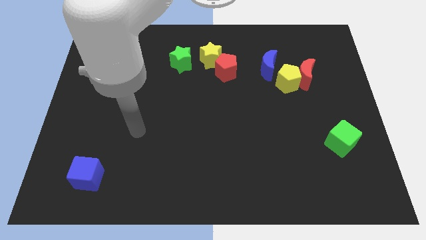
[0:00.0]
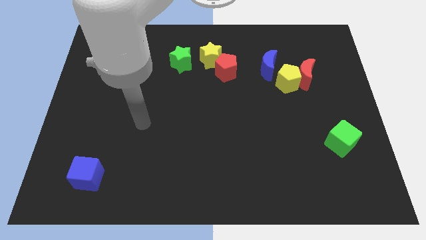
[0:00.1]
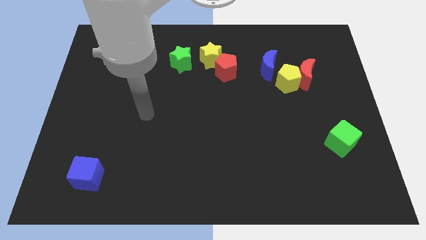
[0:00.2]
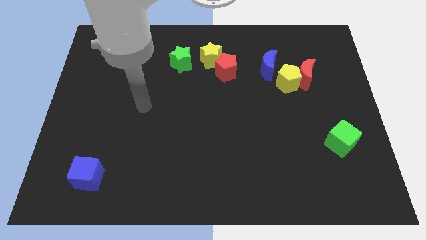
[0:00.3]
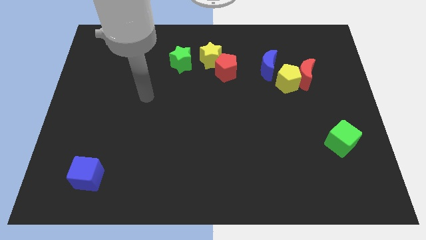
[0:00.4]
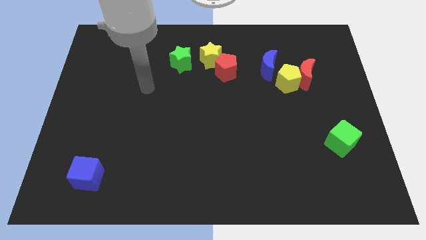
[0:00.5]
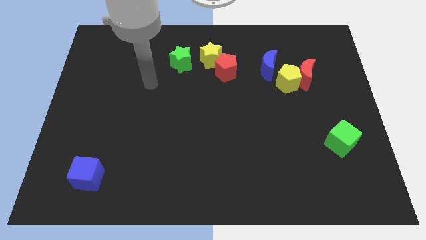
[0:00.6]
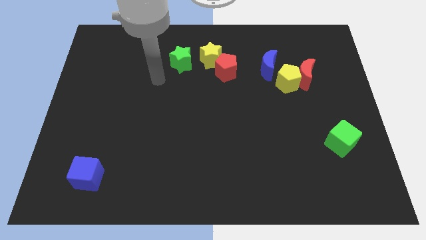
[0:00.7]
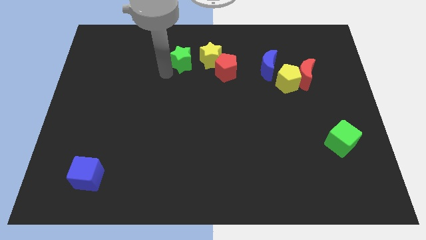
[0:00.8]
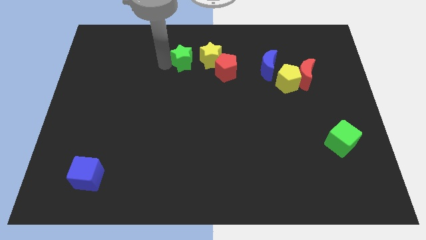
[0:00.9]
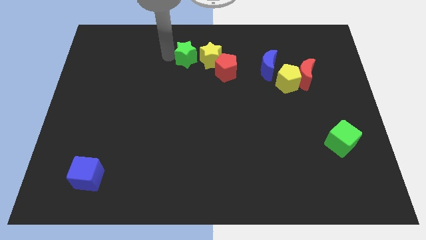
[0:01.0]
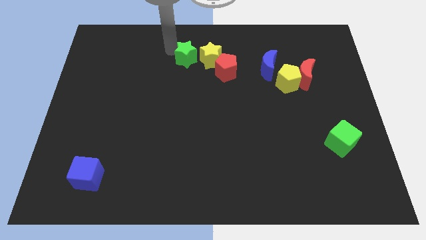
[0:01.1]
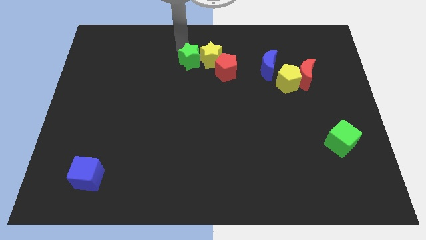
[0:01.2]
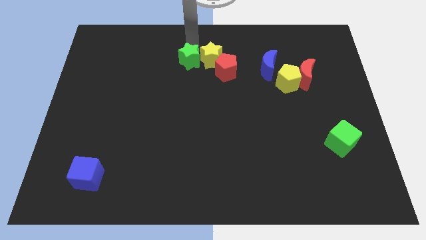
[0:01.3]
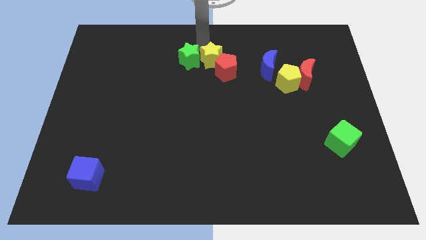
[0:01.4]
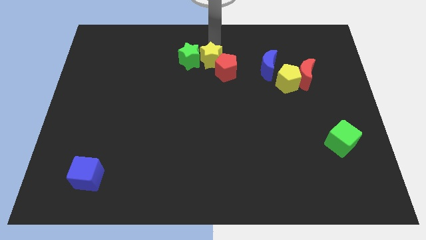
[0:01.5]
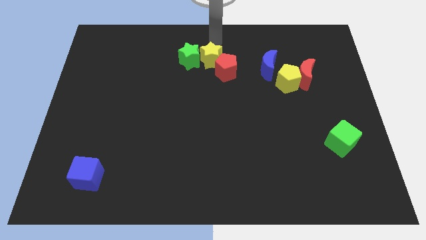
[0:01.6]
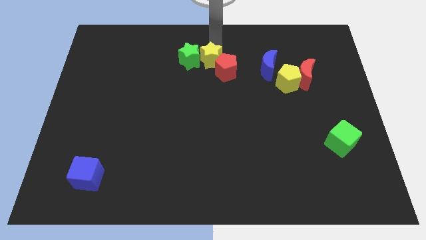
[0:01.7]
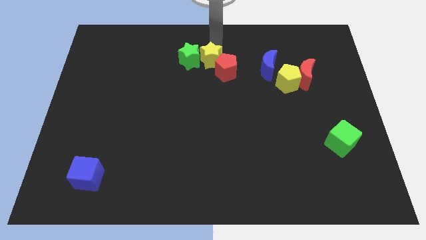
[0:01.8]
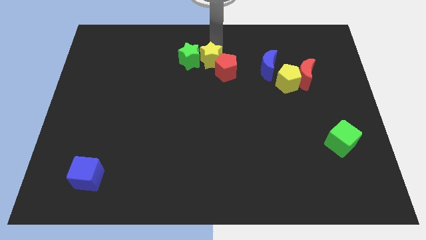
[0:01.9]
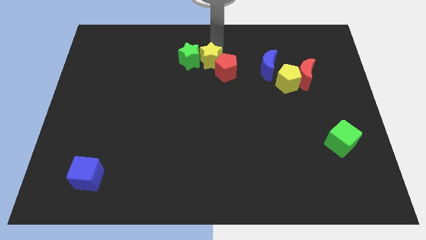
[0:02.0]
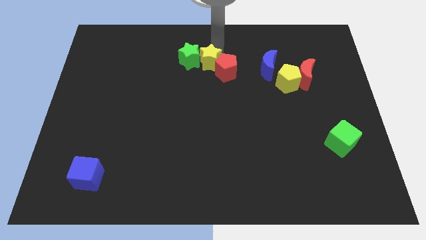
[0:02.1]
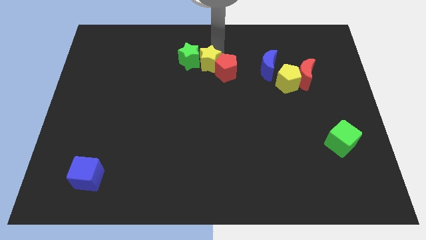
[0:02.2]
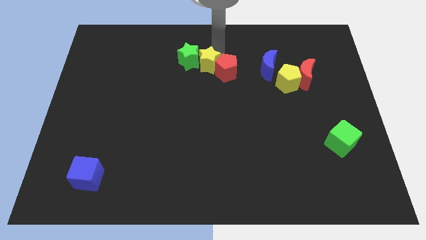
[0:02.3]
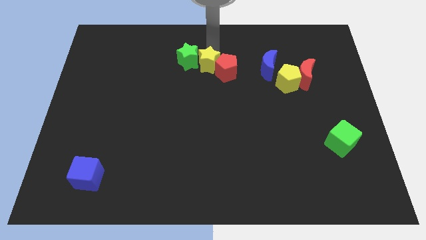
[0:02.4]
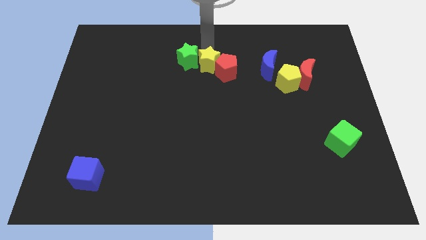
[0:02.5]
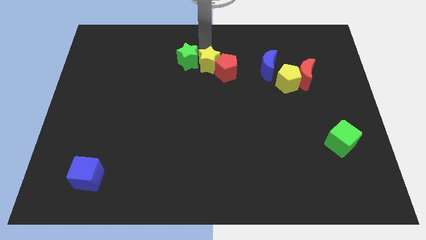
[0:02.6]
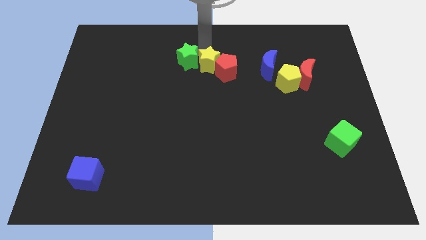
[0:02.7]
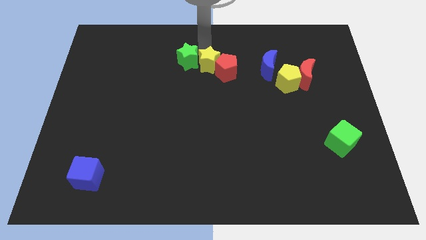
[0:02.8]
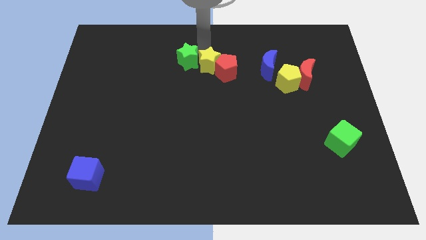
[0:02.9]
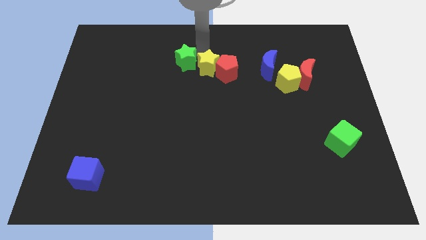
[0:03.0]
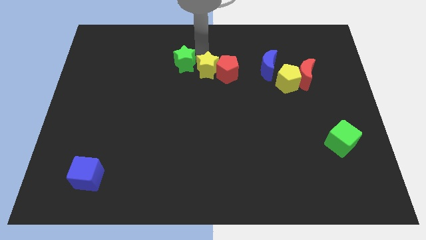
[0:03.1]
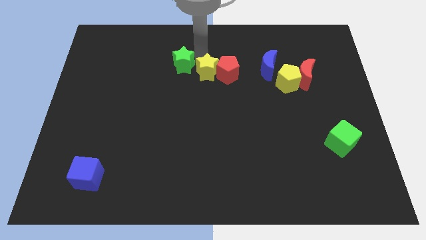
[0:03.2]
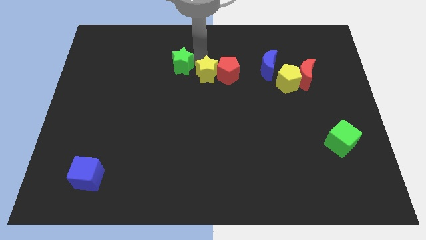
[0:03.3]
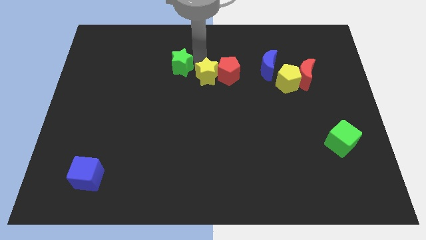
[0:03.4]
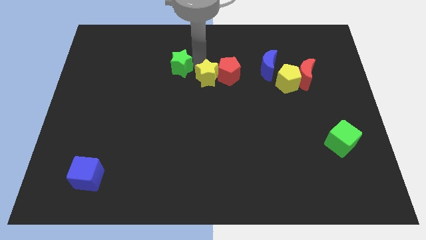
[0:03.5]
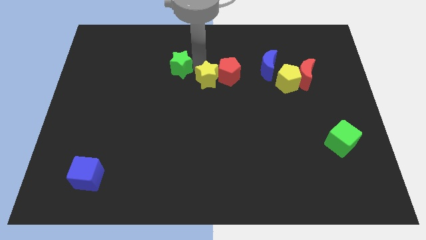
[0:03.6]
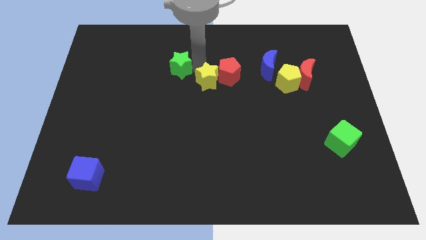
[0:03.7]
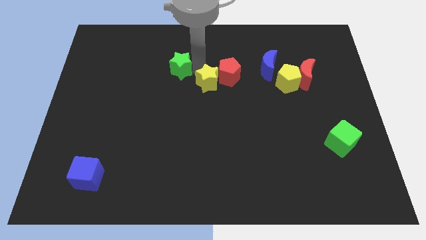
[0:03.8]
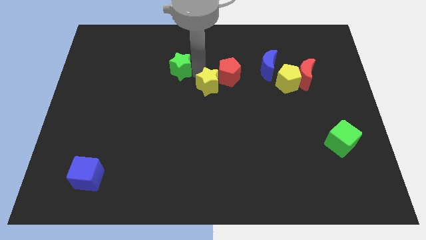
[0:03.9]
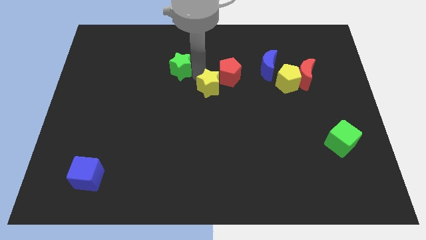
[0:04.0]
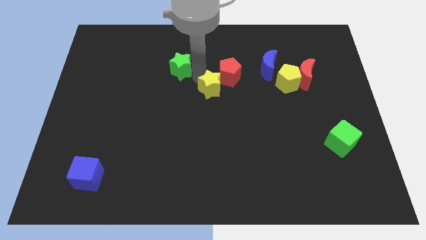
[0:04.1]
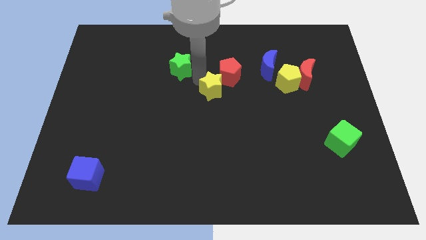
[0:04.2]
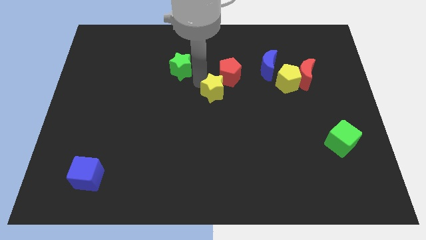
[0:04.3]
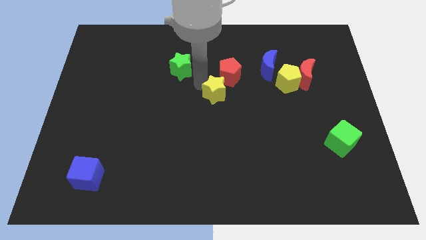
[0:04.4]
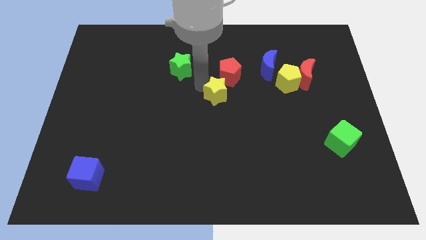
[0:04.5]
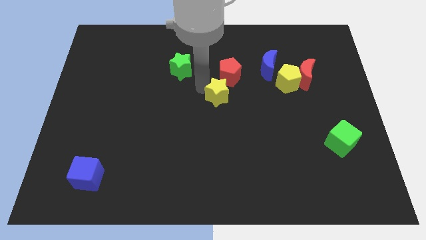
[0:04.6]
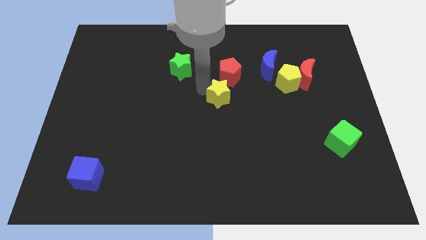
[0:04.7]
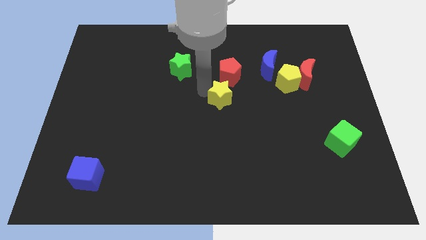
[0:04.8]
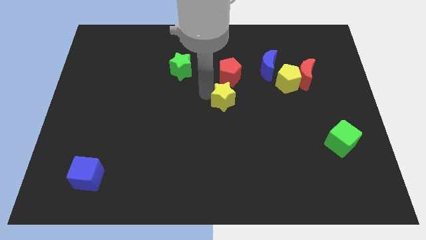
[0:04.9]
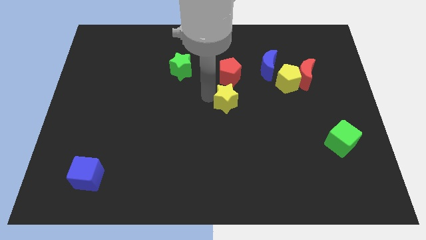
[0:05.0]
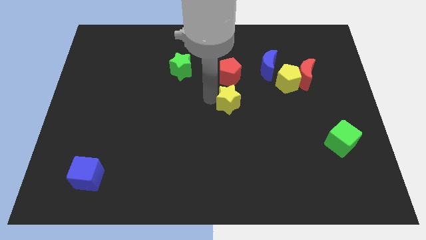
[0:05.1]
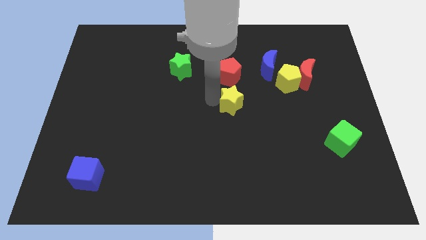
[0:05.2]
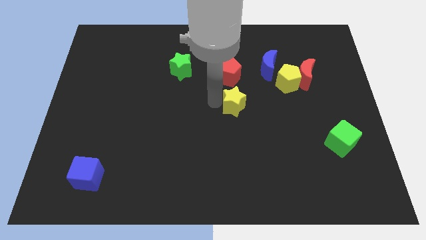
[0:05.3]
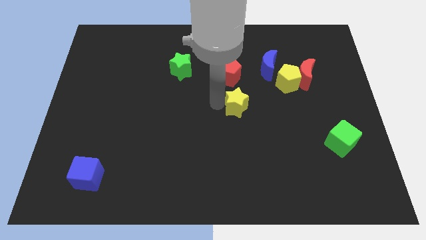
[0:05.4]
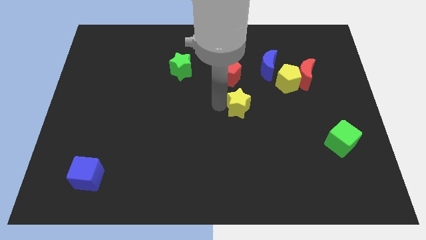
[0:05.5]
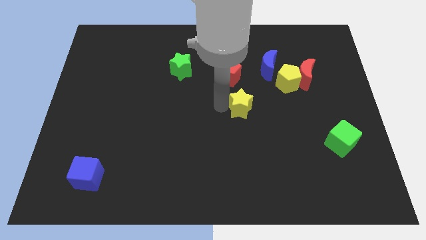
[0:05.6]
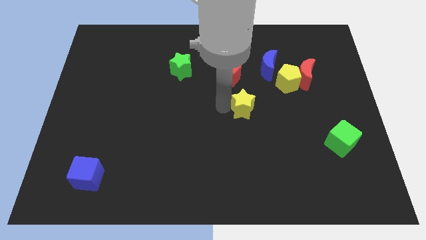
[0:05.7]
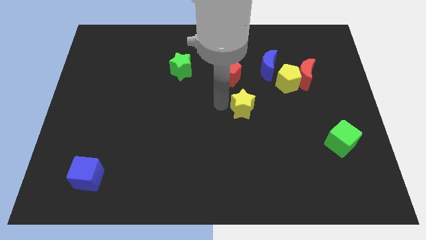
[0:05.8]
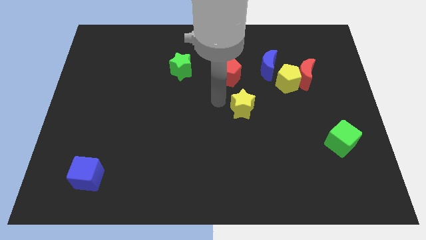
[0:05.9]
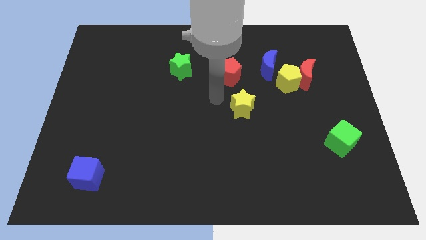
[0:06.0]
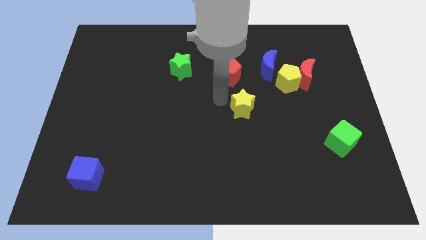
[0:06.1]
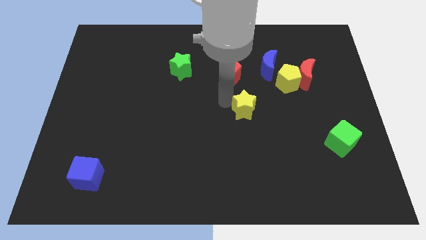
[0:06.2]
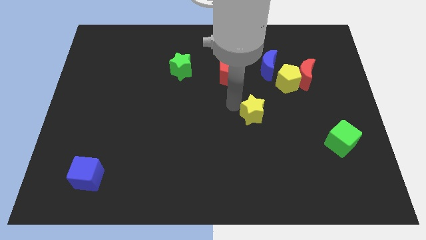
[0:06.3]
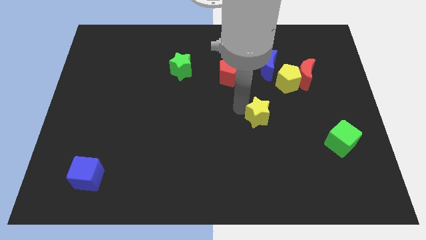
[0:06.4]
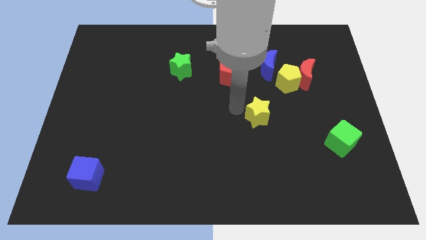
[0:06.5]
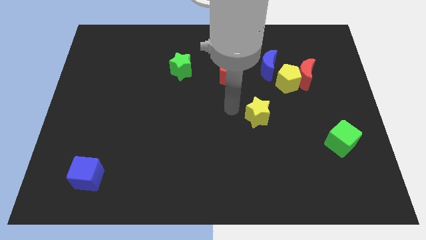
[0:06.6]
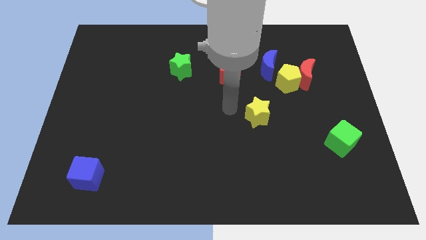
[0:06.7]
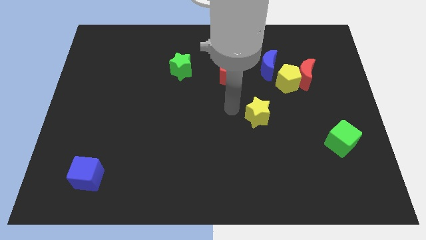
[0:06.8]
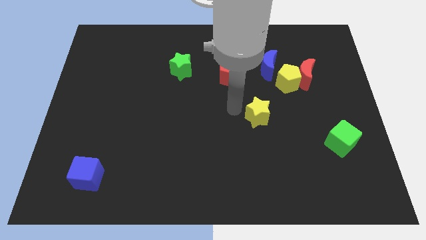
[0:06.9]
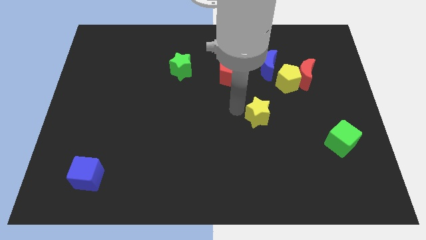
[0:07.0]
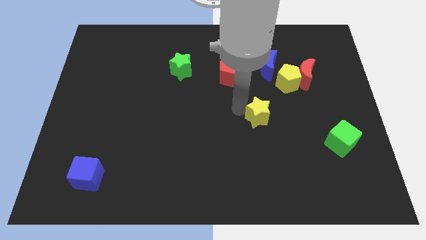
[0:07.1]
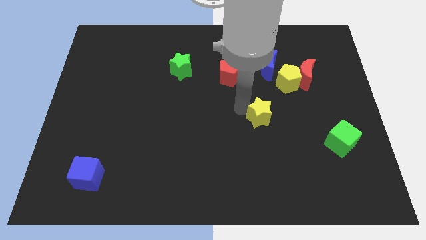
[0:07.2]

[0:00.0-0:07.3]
move the yellow star downwards and right diagonally

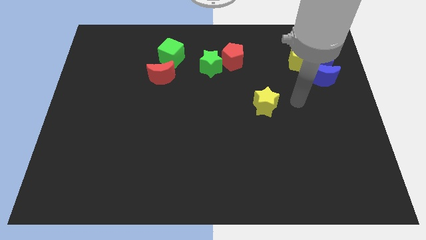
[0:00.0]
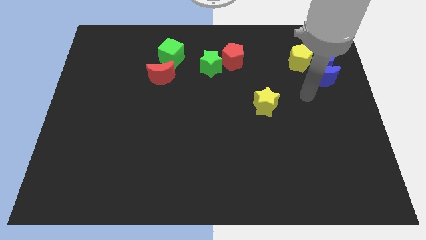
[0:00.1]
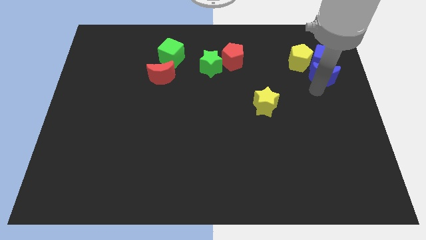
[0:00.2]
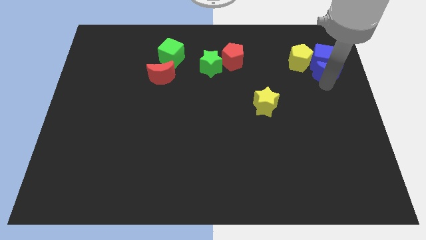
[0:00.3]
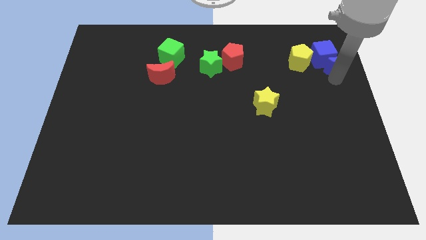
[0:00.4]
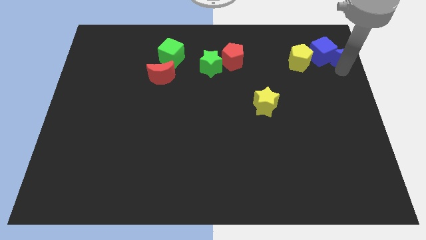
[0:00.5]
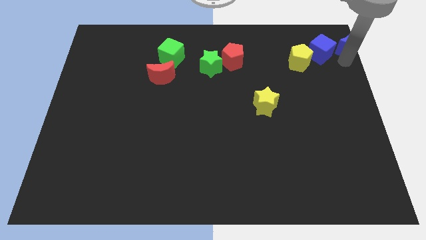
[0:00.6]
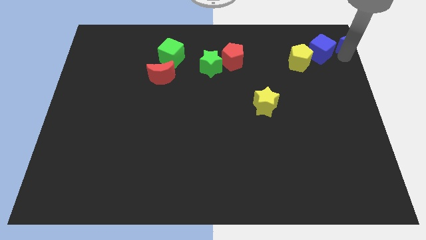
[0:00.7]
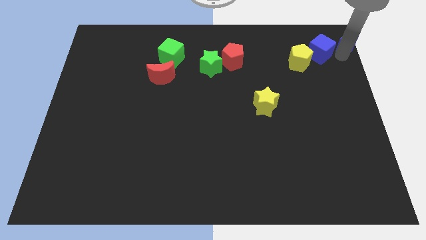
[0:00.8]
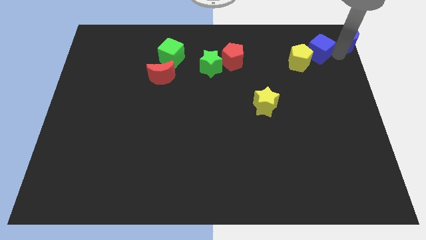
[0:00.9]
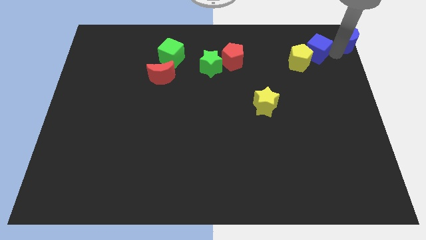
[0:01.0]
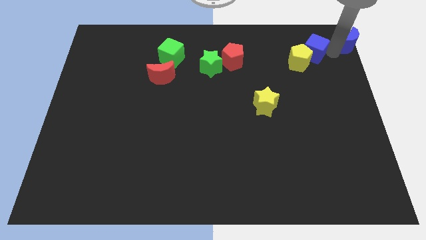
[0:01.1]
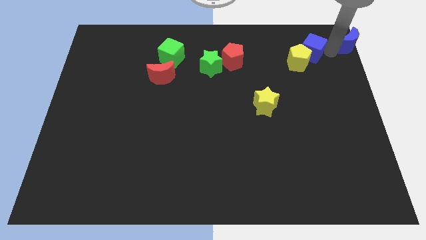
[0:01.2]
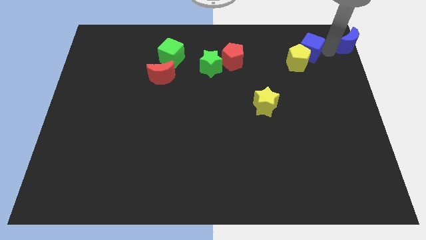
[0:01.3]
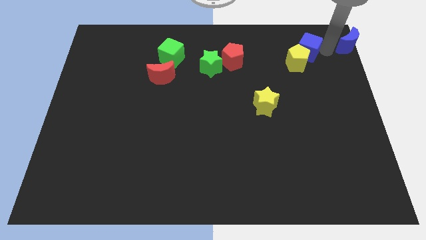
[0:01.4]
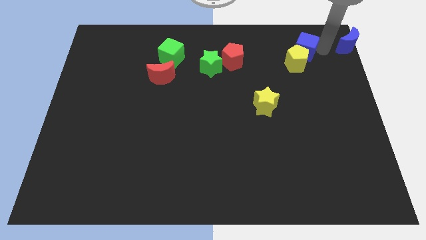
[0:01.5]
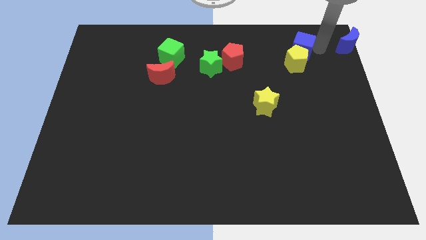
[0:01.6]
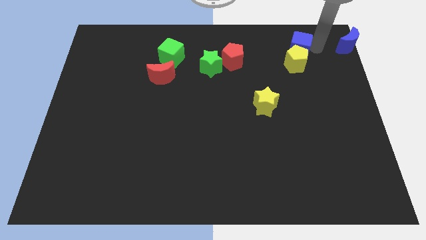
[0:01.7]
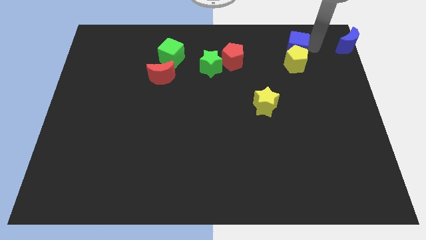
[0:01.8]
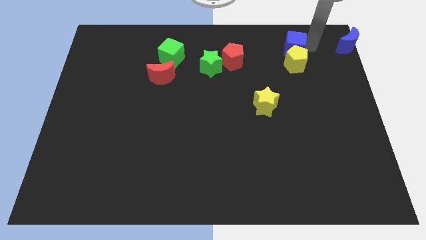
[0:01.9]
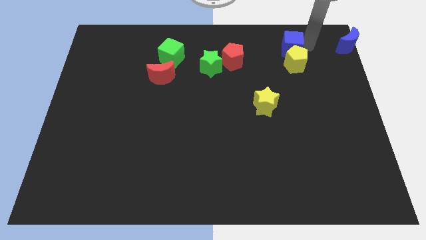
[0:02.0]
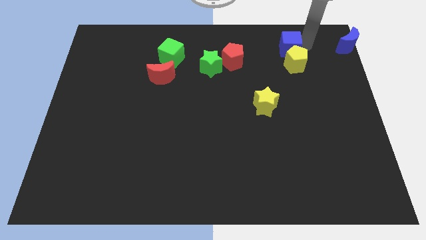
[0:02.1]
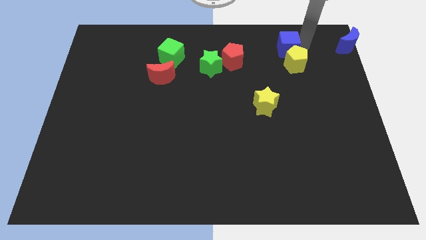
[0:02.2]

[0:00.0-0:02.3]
slightly slide the blue cube left
